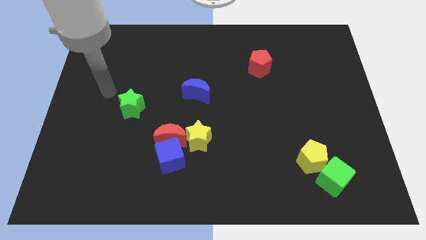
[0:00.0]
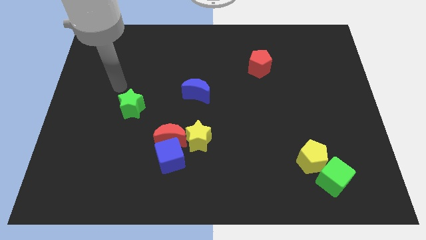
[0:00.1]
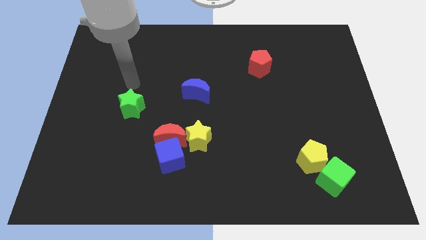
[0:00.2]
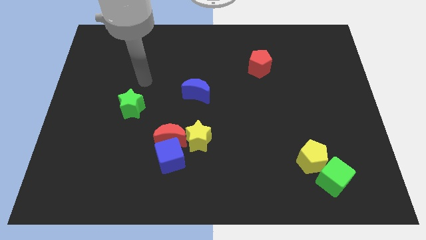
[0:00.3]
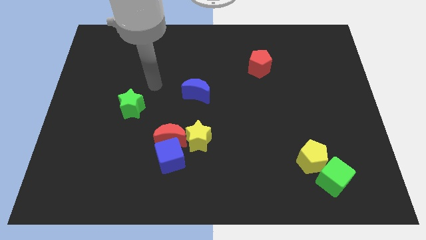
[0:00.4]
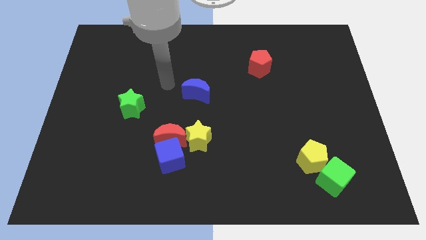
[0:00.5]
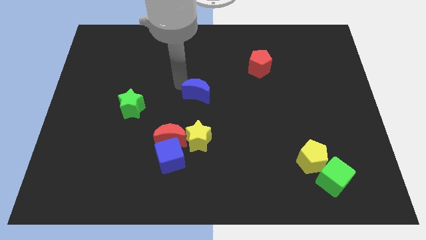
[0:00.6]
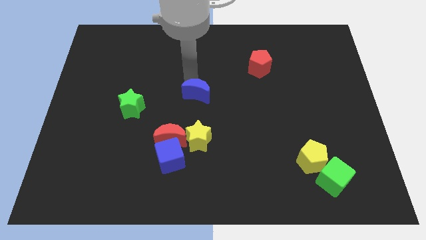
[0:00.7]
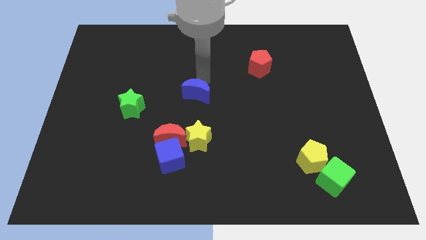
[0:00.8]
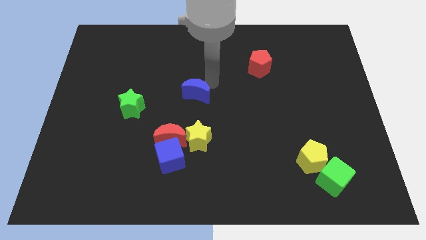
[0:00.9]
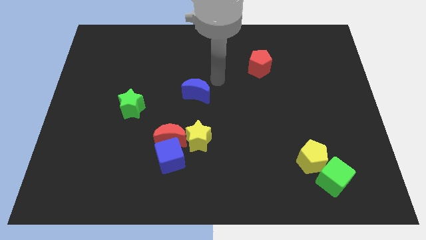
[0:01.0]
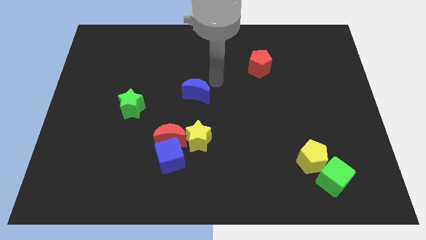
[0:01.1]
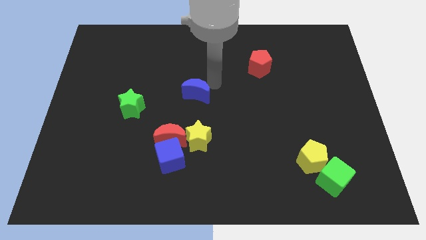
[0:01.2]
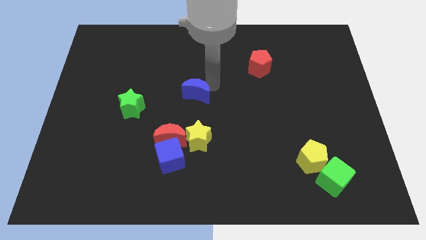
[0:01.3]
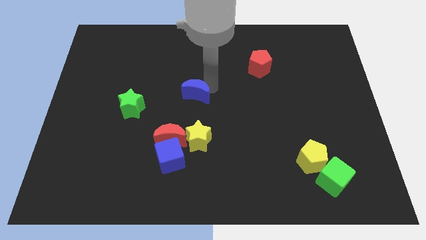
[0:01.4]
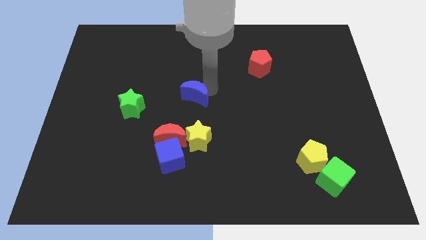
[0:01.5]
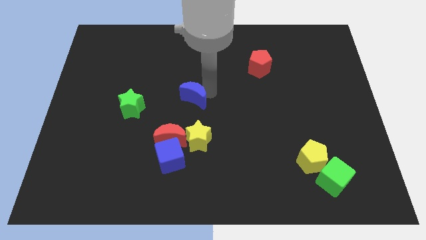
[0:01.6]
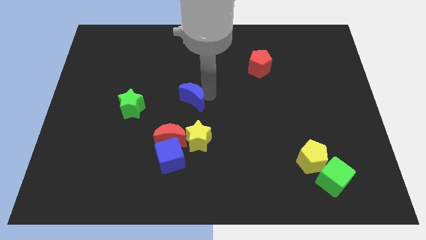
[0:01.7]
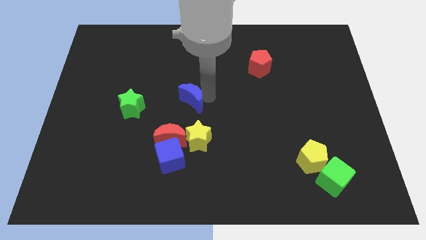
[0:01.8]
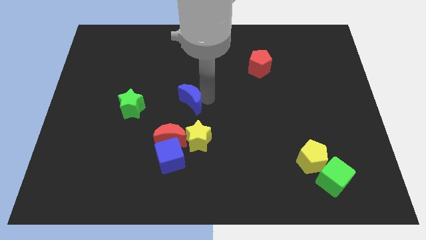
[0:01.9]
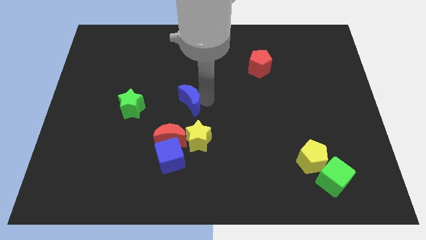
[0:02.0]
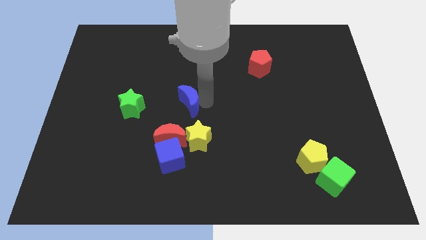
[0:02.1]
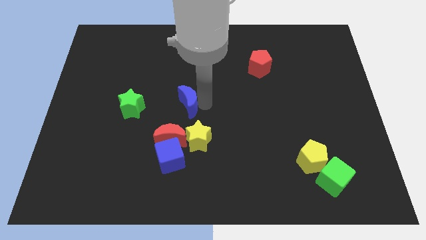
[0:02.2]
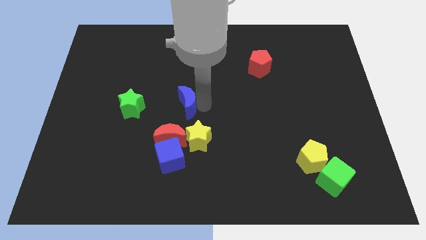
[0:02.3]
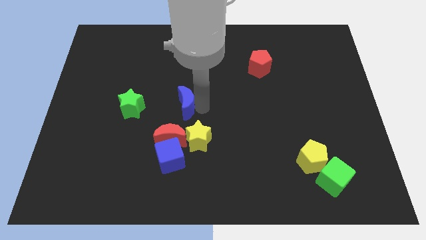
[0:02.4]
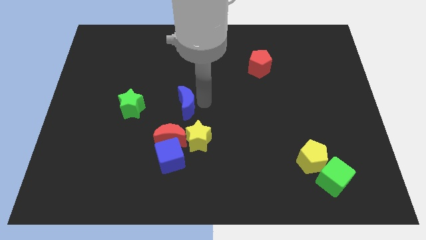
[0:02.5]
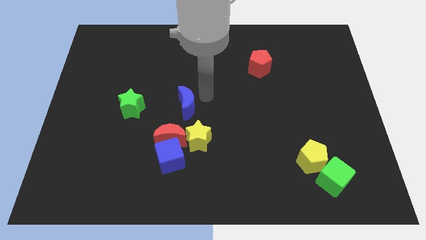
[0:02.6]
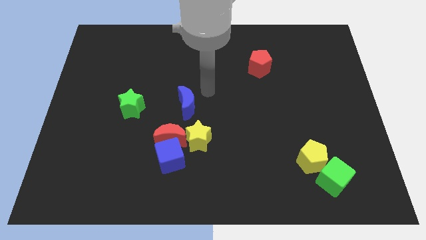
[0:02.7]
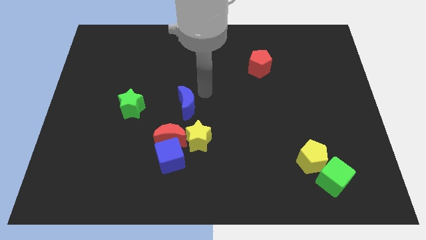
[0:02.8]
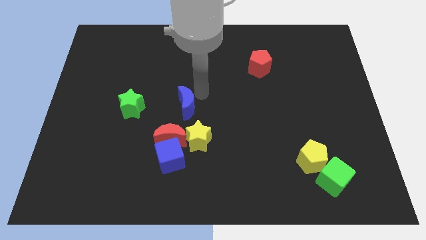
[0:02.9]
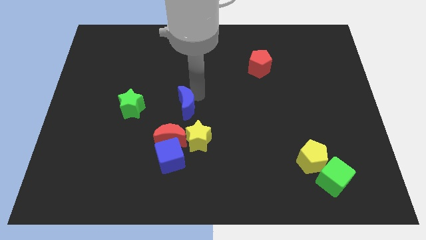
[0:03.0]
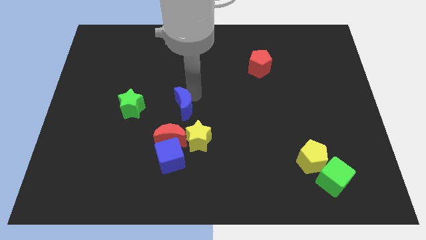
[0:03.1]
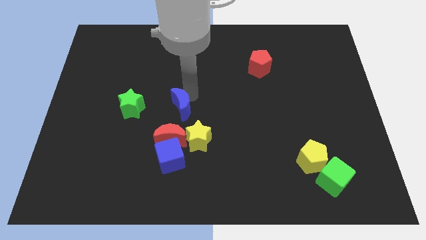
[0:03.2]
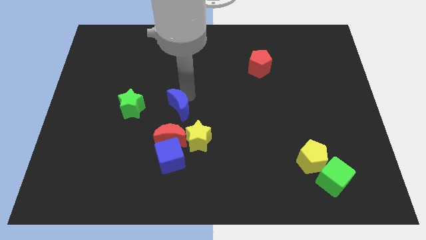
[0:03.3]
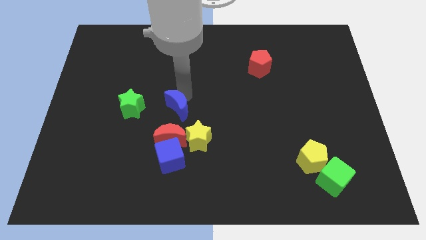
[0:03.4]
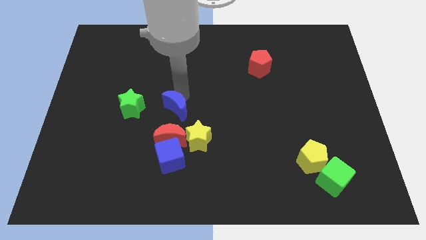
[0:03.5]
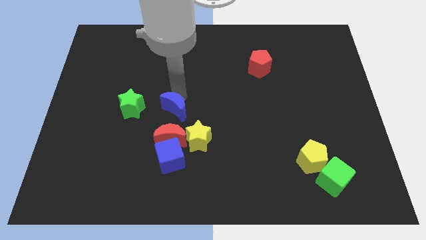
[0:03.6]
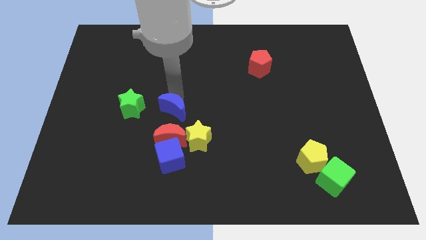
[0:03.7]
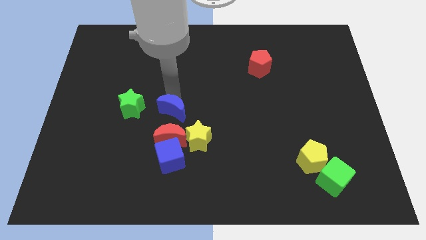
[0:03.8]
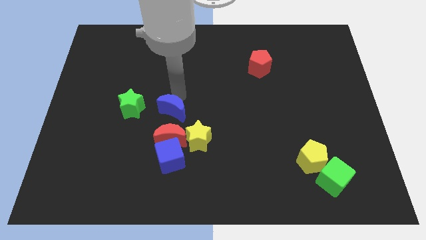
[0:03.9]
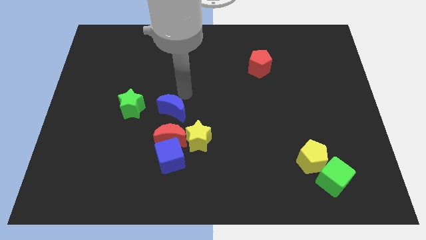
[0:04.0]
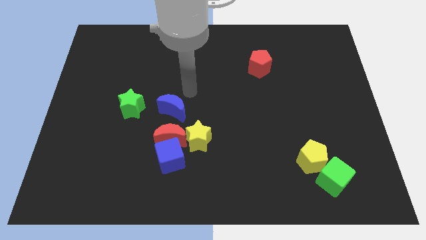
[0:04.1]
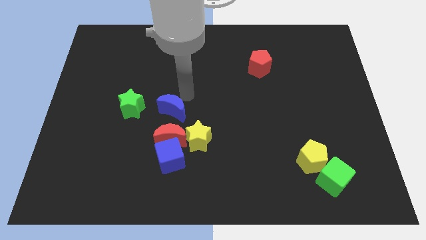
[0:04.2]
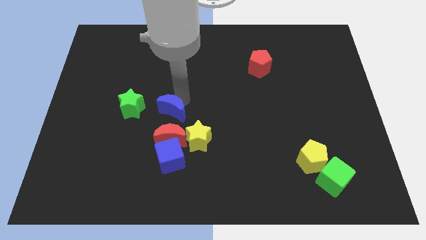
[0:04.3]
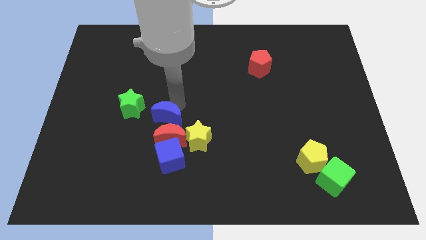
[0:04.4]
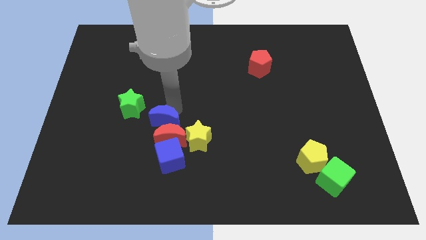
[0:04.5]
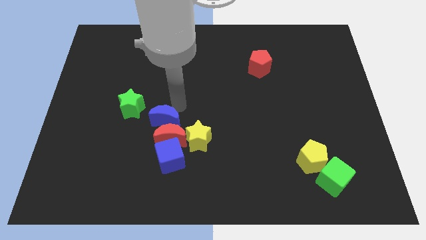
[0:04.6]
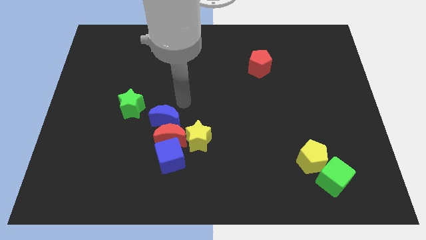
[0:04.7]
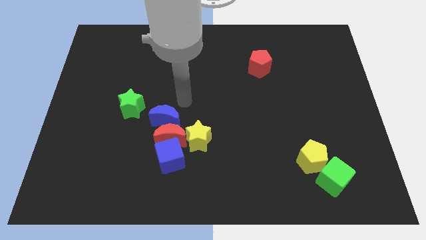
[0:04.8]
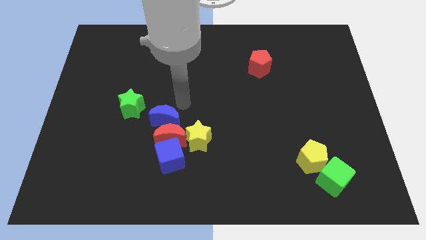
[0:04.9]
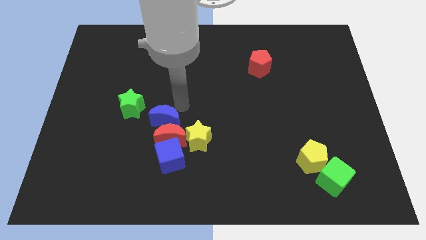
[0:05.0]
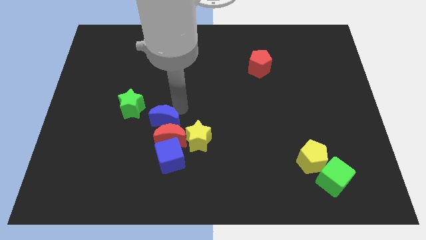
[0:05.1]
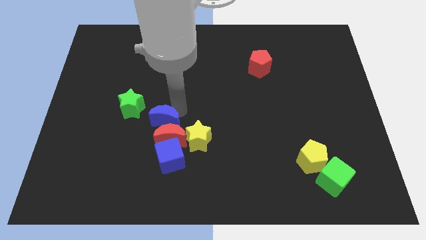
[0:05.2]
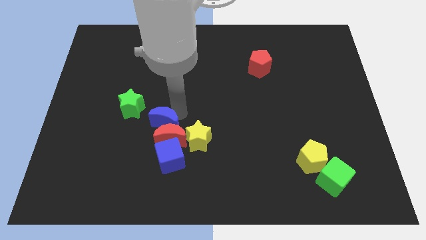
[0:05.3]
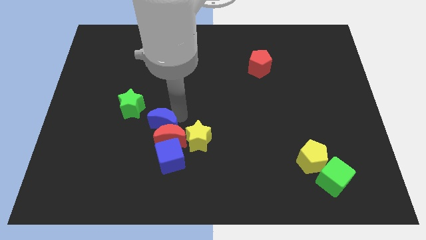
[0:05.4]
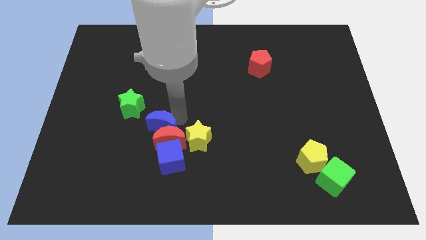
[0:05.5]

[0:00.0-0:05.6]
push the blue moon to the top left side of the blue cube

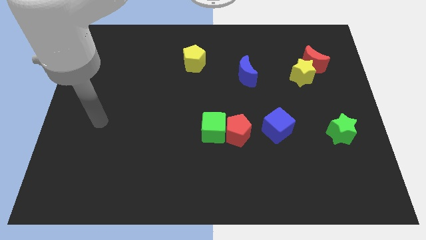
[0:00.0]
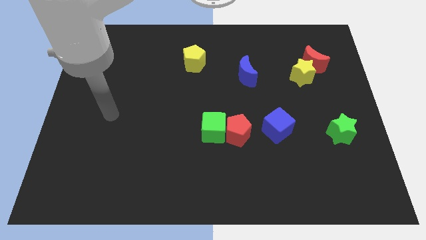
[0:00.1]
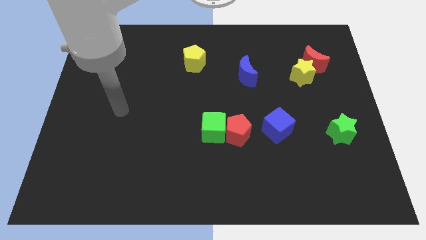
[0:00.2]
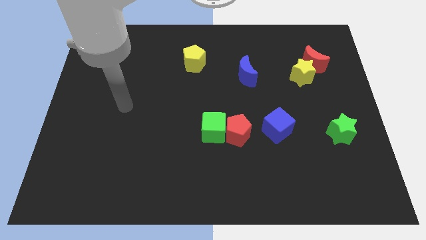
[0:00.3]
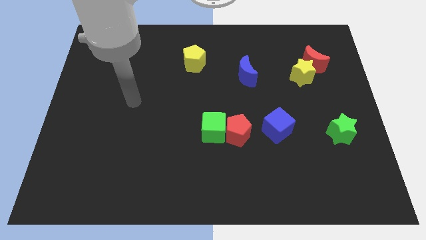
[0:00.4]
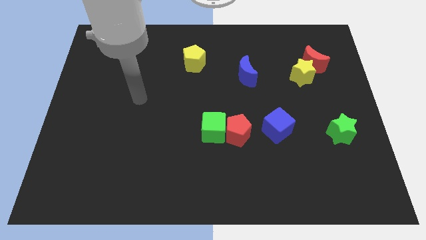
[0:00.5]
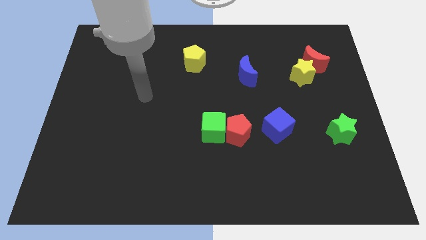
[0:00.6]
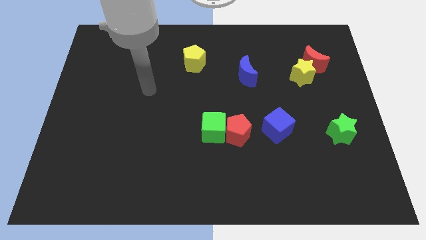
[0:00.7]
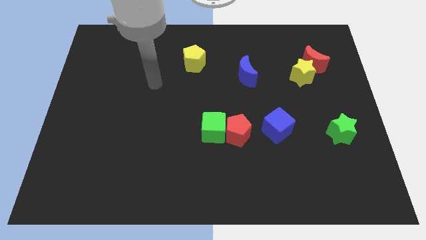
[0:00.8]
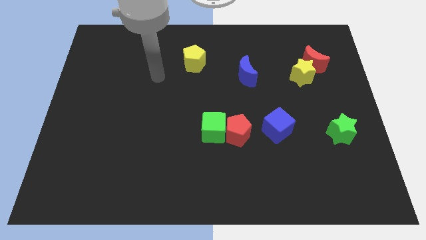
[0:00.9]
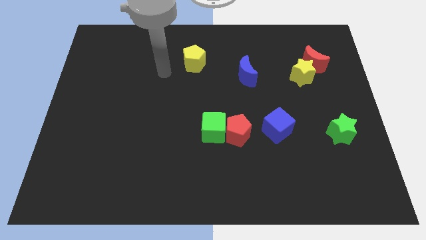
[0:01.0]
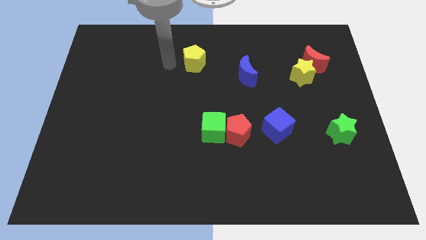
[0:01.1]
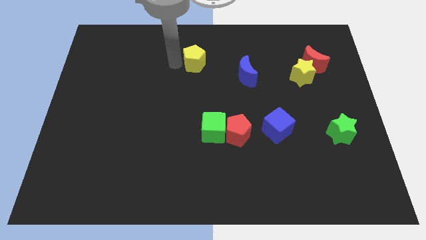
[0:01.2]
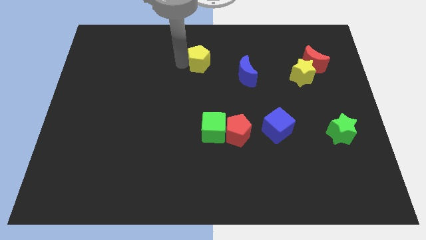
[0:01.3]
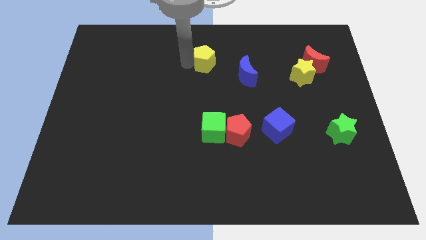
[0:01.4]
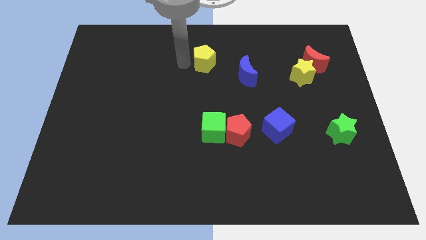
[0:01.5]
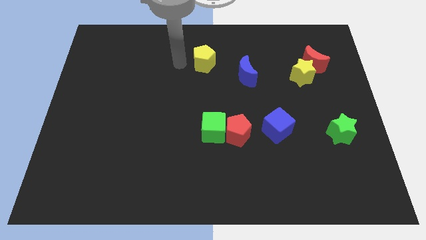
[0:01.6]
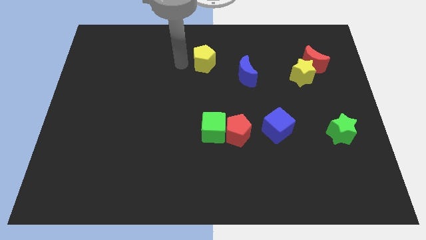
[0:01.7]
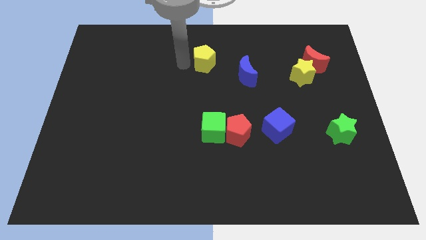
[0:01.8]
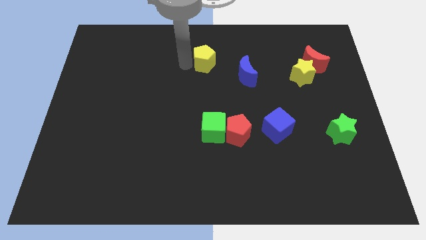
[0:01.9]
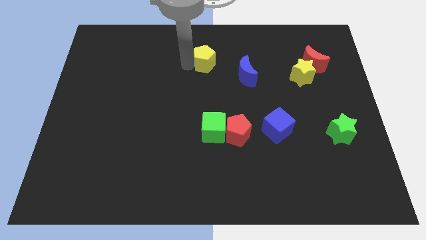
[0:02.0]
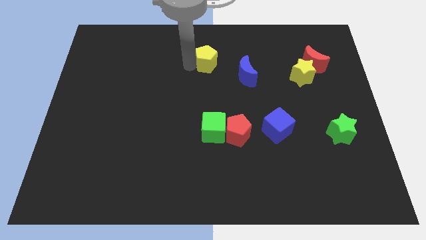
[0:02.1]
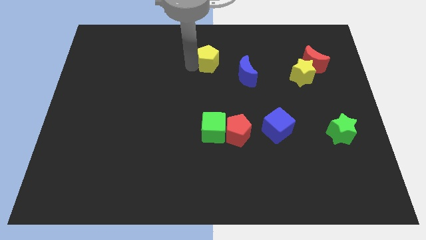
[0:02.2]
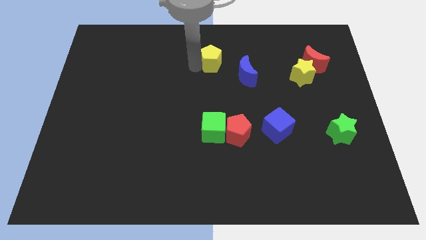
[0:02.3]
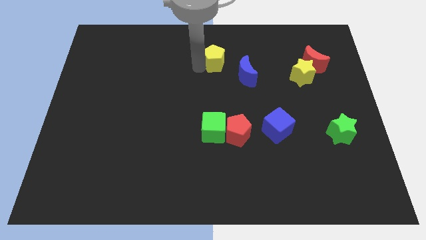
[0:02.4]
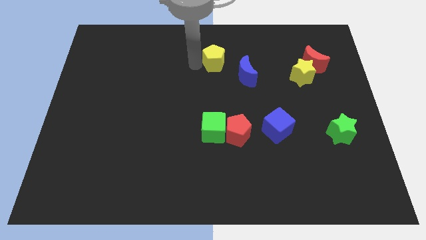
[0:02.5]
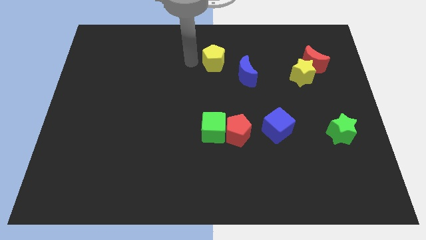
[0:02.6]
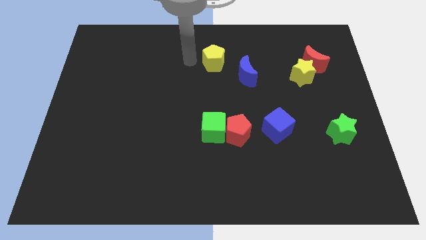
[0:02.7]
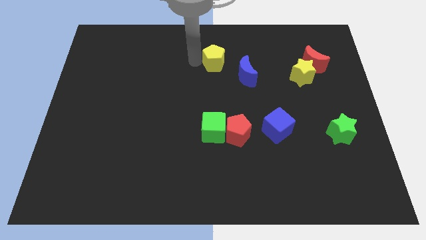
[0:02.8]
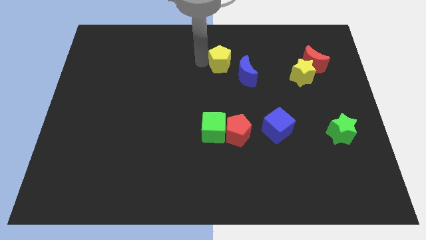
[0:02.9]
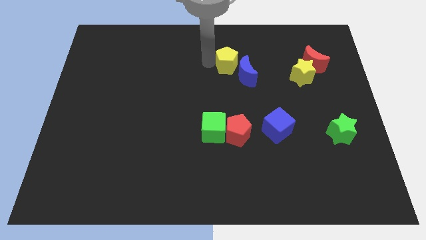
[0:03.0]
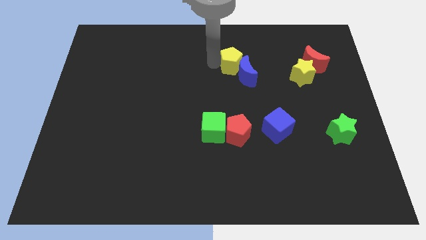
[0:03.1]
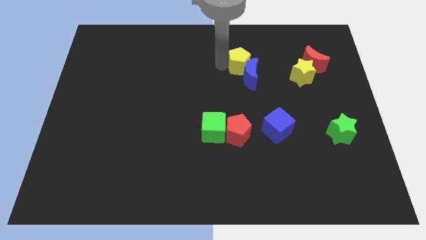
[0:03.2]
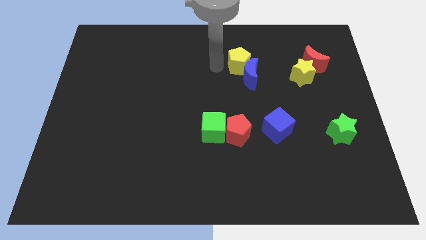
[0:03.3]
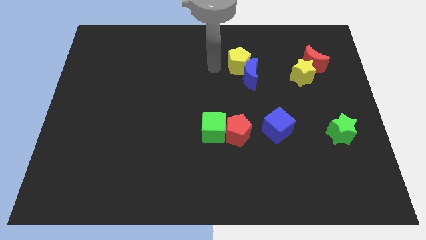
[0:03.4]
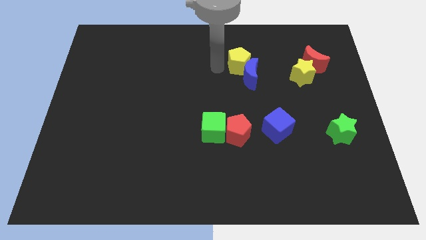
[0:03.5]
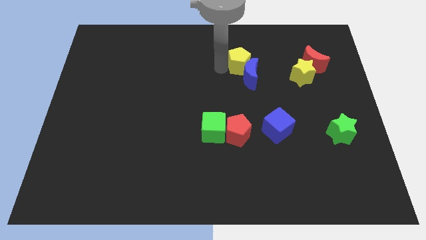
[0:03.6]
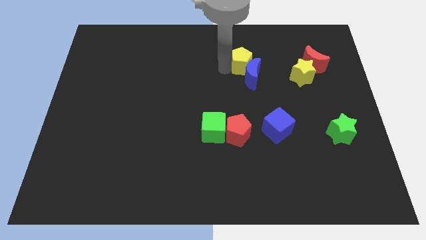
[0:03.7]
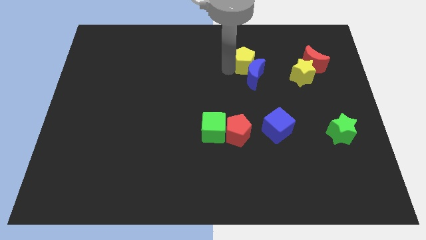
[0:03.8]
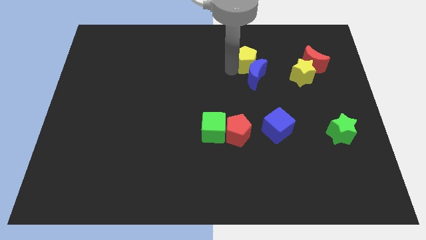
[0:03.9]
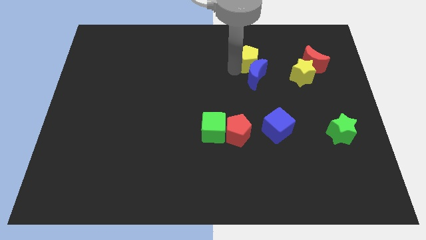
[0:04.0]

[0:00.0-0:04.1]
move the yellow pentagon diagonally up and to the right of the blue moon
